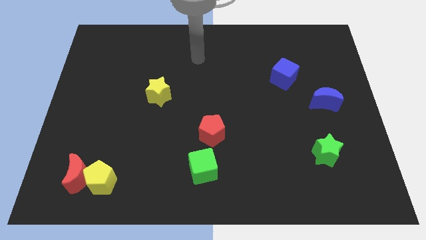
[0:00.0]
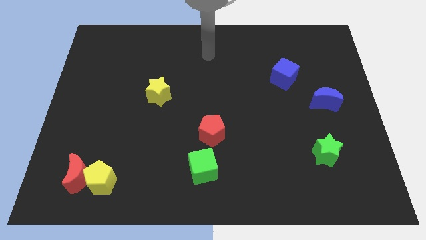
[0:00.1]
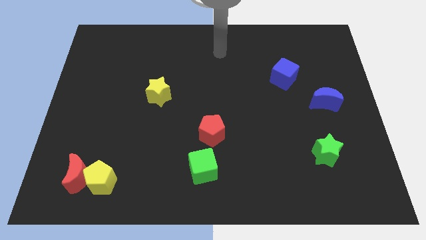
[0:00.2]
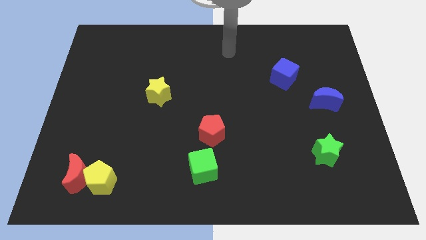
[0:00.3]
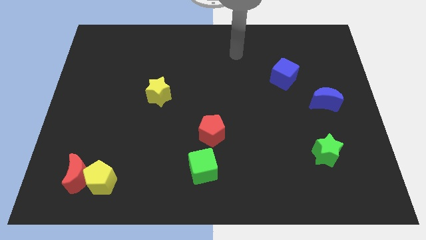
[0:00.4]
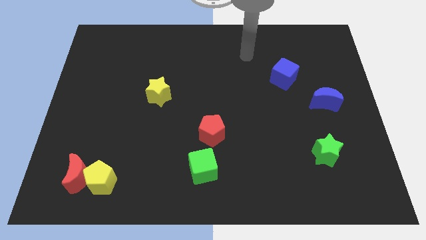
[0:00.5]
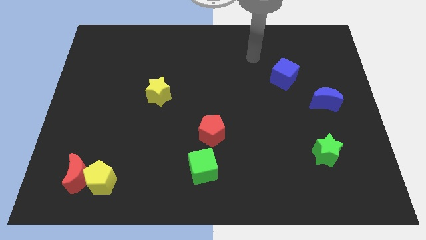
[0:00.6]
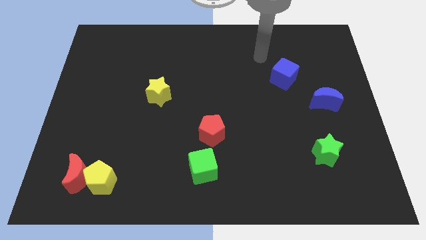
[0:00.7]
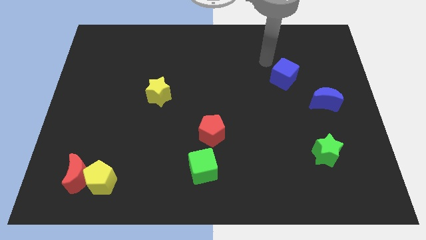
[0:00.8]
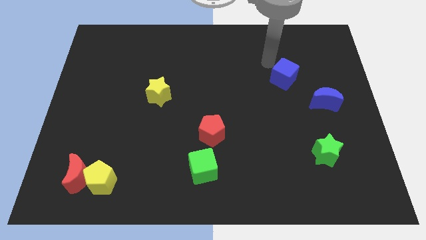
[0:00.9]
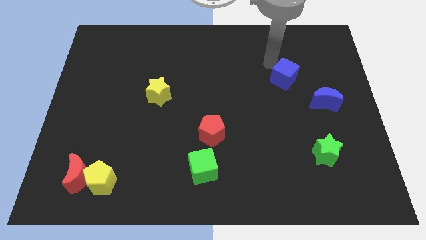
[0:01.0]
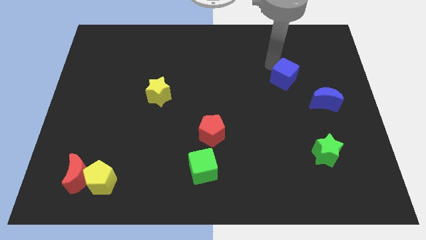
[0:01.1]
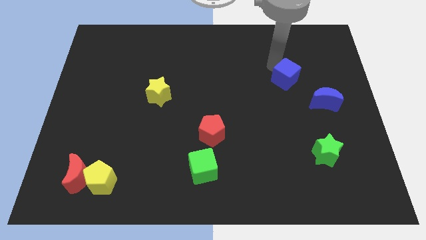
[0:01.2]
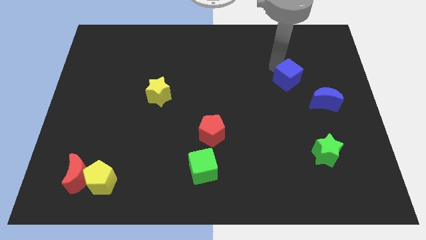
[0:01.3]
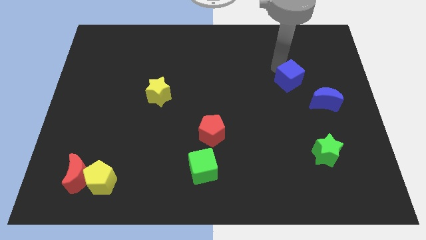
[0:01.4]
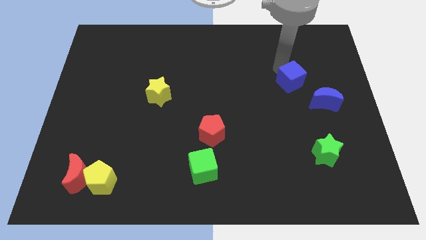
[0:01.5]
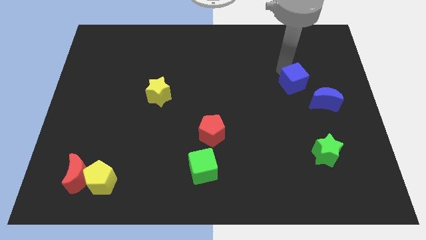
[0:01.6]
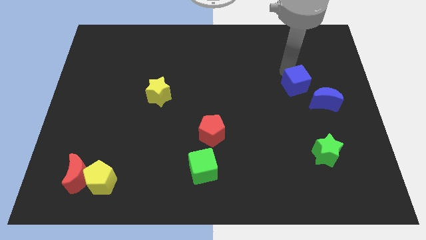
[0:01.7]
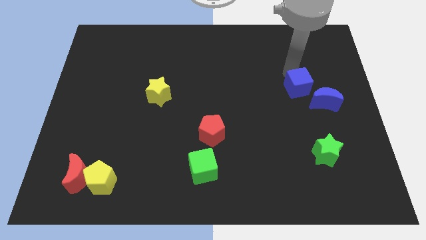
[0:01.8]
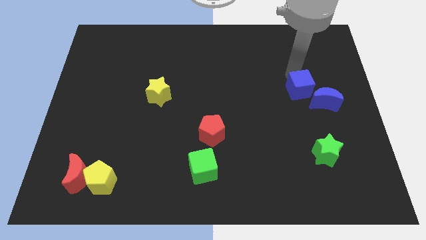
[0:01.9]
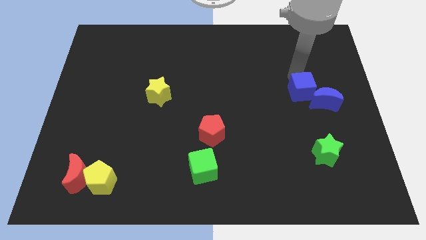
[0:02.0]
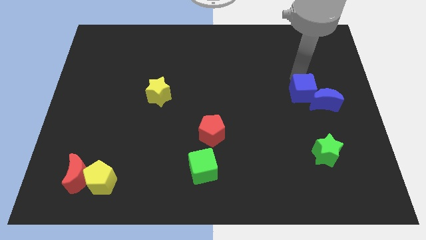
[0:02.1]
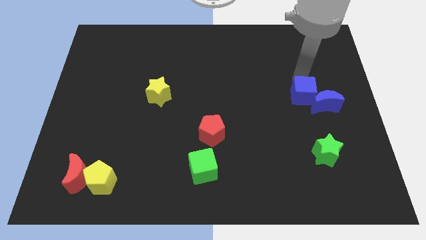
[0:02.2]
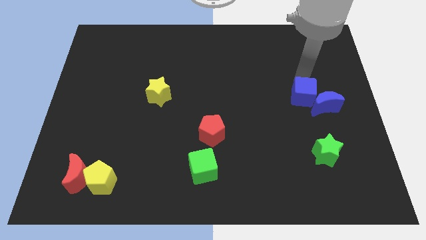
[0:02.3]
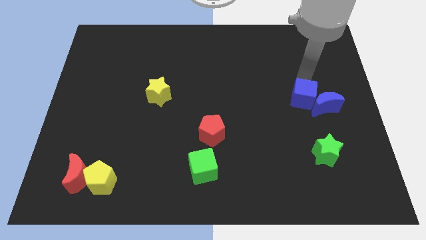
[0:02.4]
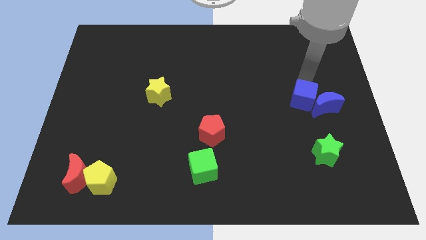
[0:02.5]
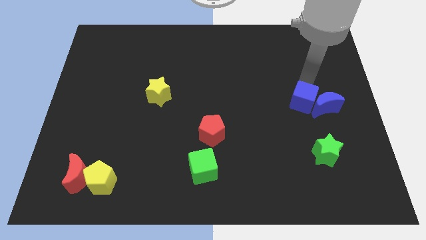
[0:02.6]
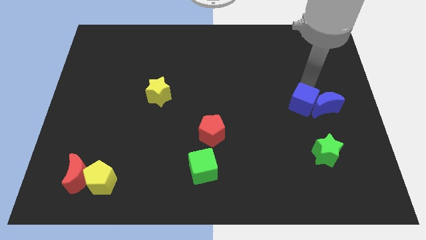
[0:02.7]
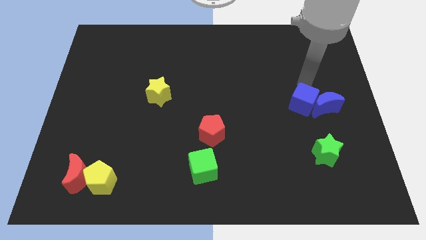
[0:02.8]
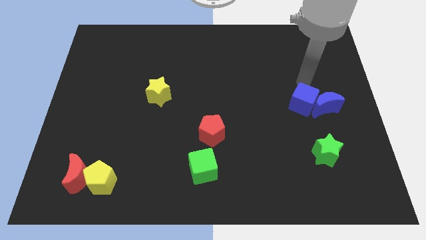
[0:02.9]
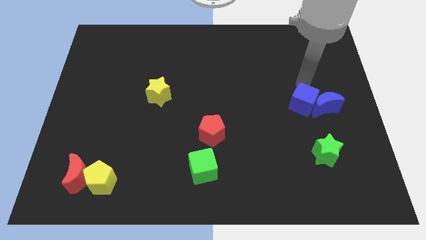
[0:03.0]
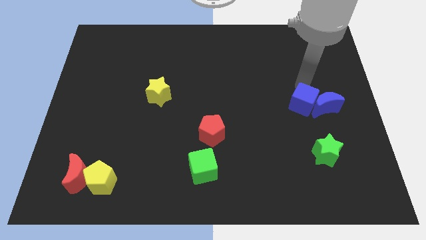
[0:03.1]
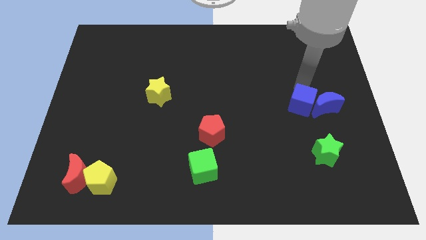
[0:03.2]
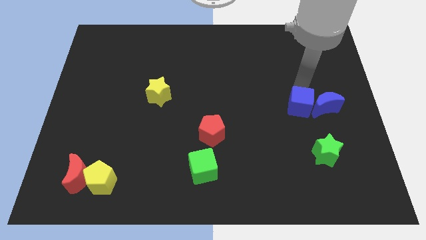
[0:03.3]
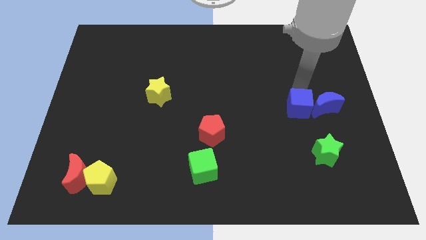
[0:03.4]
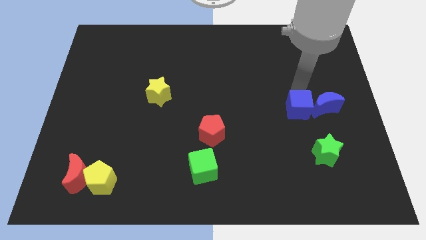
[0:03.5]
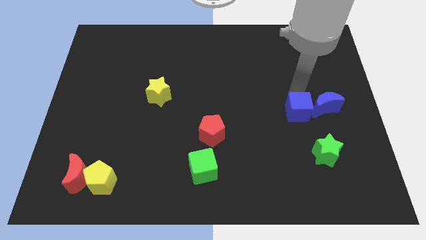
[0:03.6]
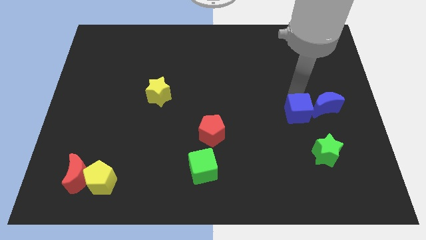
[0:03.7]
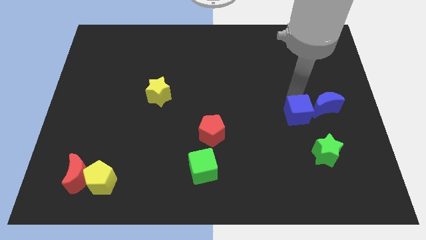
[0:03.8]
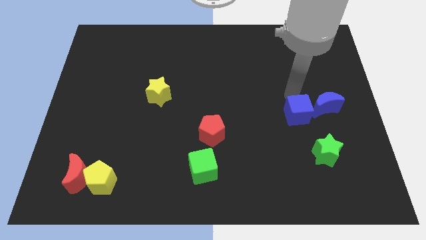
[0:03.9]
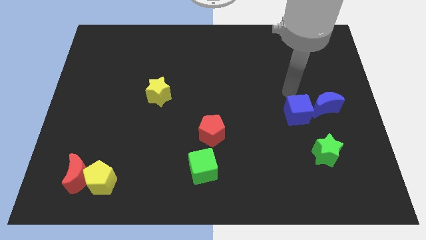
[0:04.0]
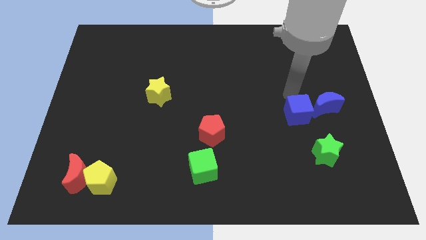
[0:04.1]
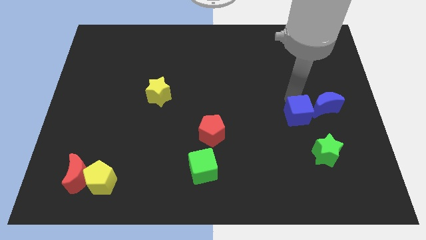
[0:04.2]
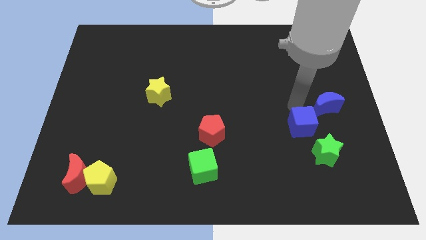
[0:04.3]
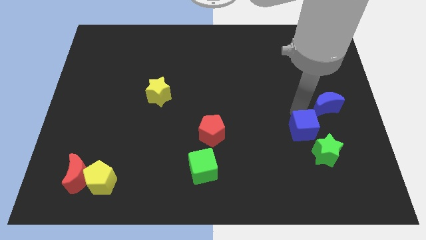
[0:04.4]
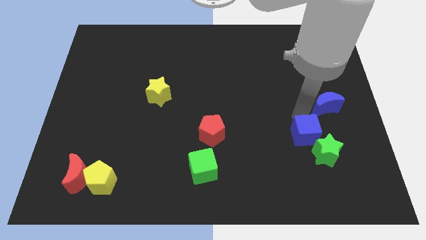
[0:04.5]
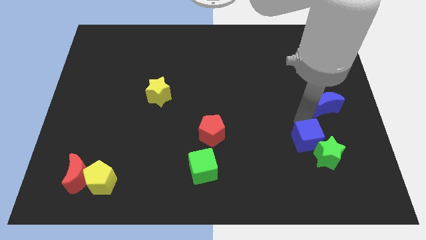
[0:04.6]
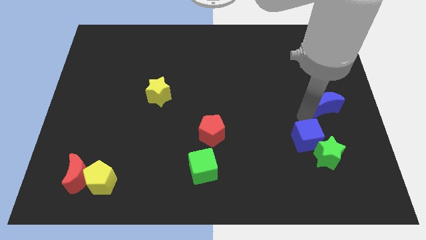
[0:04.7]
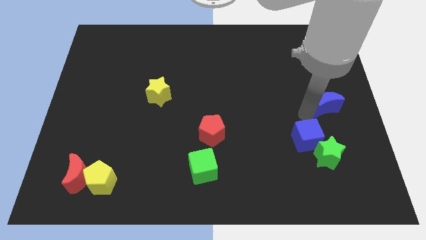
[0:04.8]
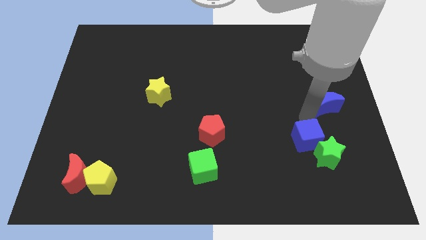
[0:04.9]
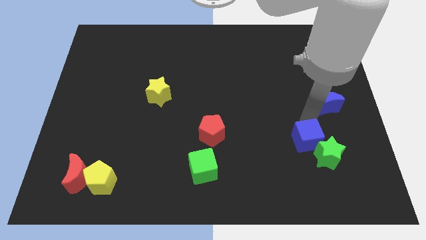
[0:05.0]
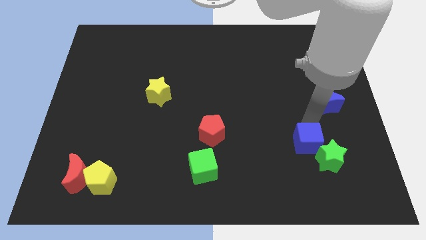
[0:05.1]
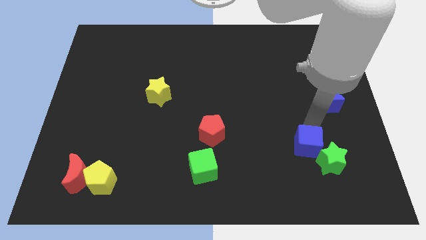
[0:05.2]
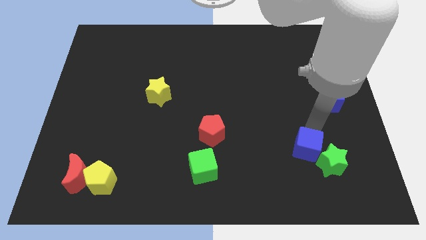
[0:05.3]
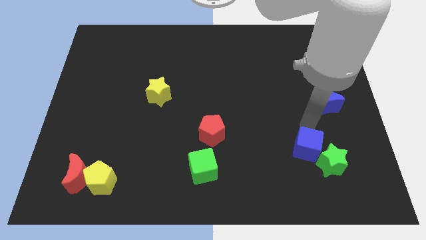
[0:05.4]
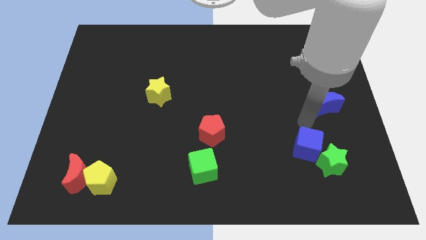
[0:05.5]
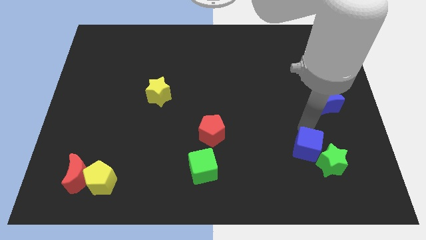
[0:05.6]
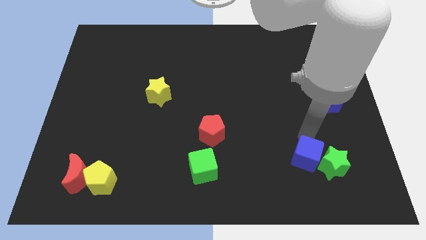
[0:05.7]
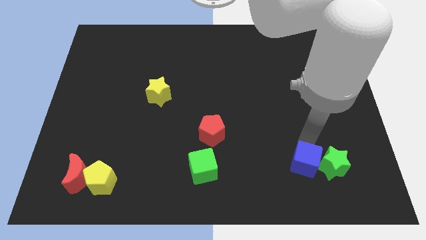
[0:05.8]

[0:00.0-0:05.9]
move the blue cube diagonally down and to the left of the green star

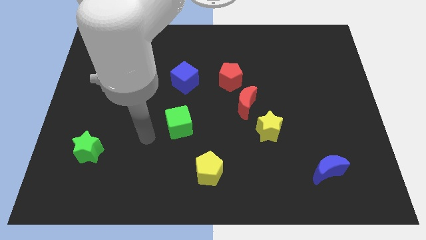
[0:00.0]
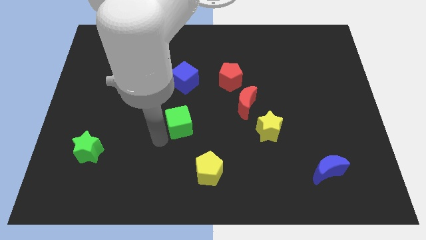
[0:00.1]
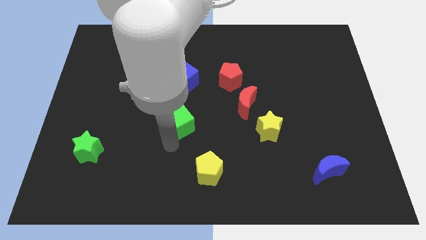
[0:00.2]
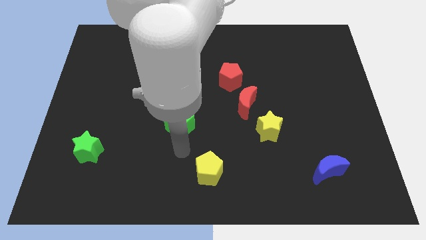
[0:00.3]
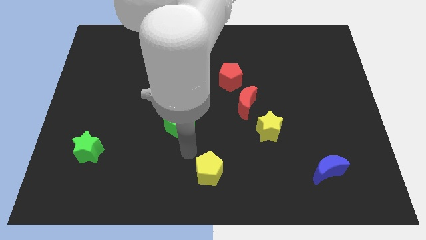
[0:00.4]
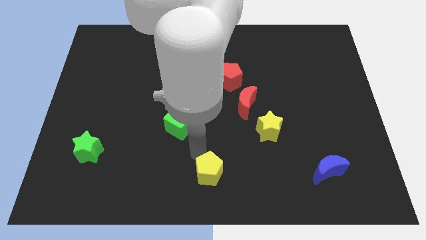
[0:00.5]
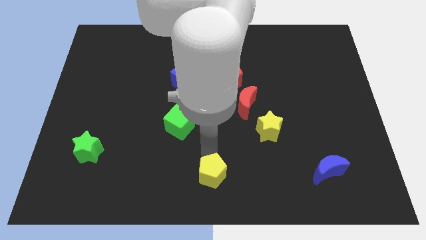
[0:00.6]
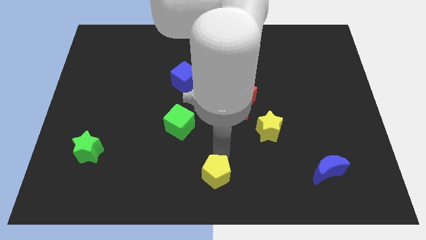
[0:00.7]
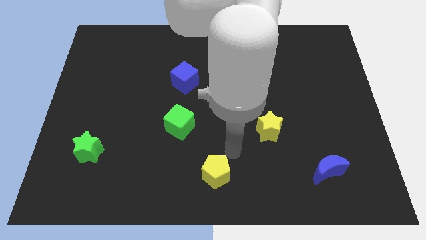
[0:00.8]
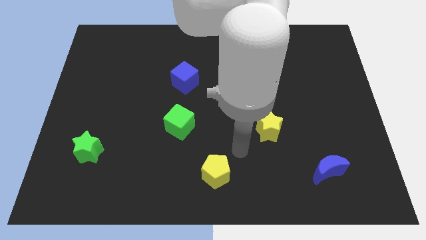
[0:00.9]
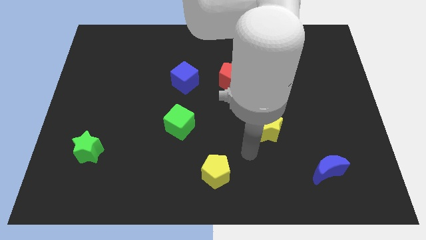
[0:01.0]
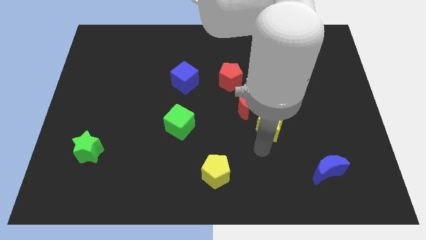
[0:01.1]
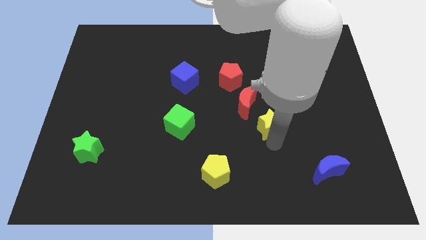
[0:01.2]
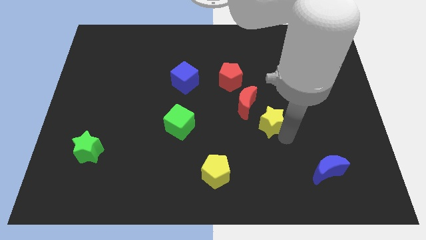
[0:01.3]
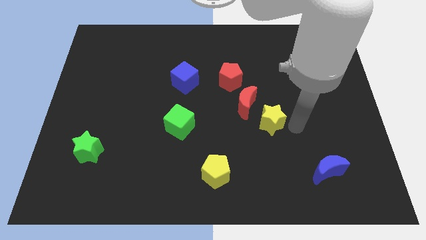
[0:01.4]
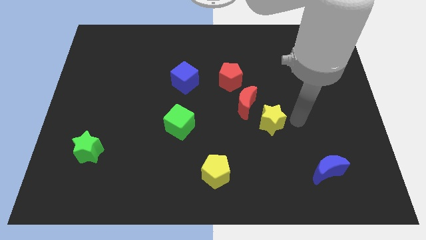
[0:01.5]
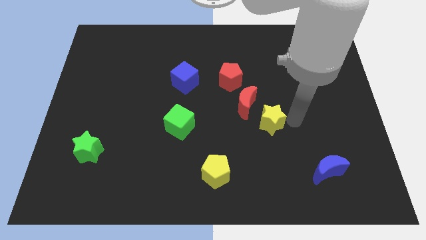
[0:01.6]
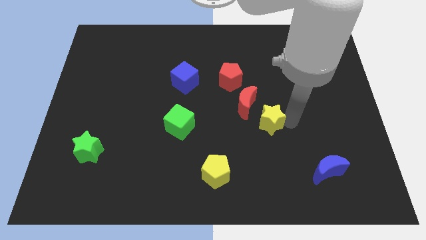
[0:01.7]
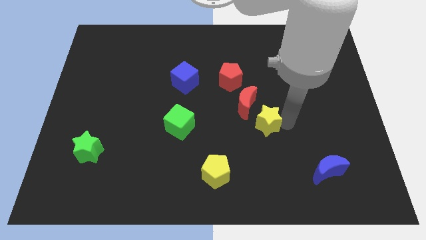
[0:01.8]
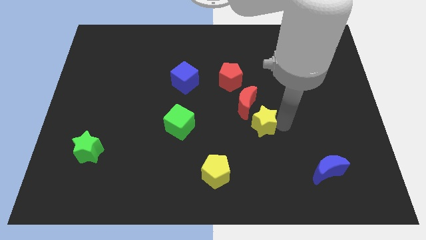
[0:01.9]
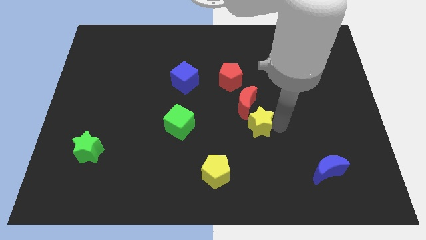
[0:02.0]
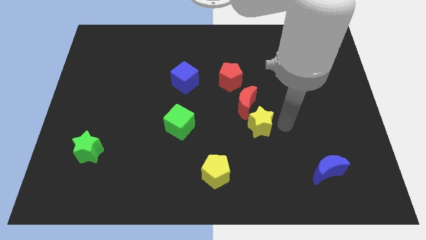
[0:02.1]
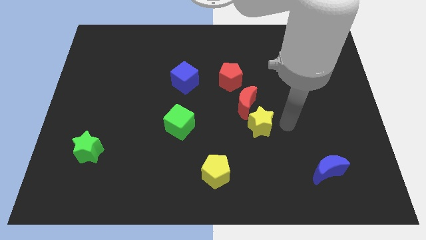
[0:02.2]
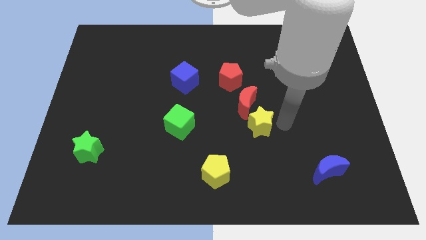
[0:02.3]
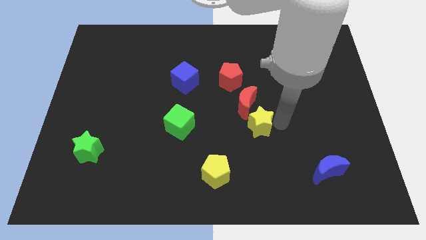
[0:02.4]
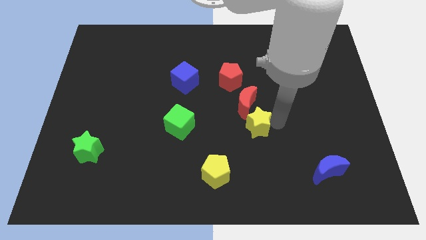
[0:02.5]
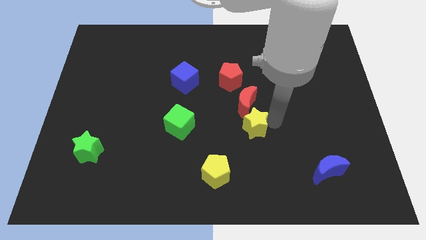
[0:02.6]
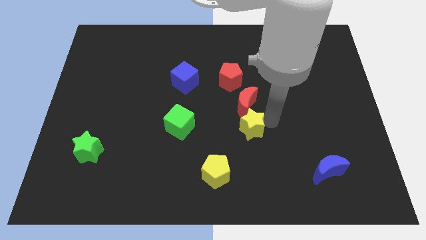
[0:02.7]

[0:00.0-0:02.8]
slide the yellow star to the right side of the green cube
